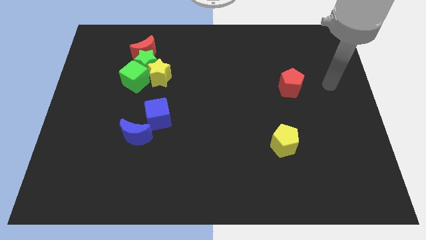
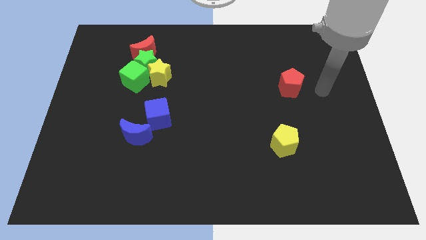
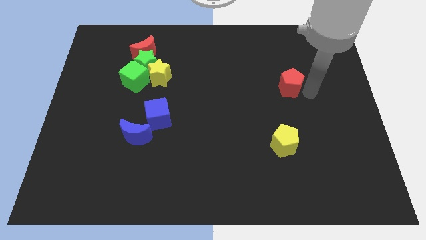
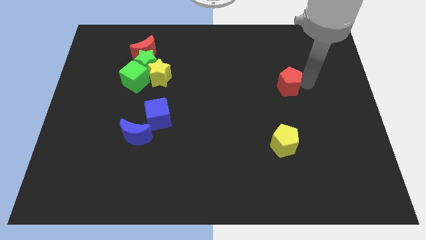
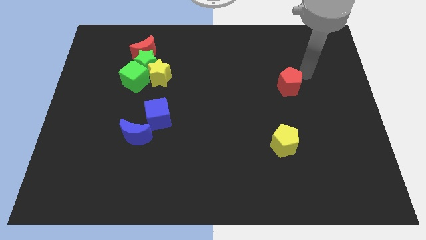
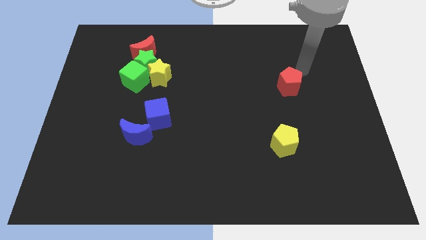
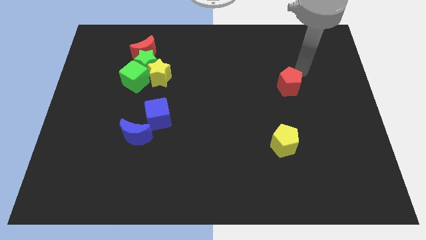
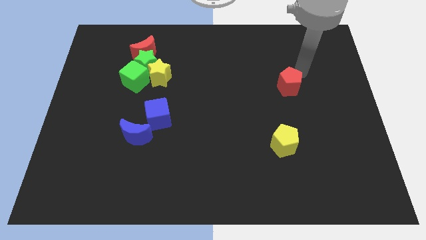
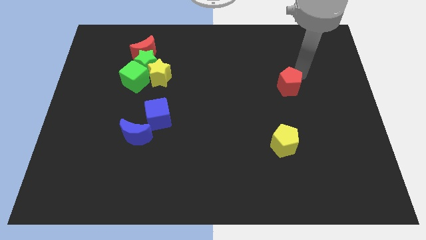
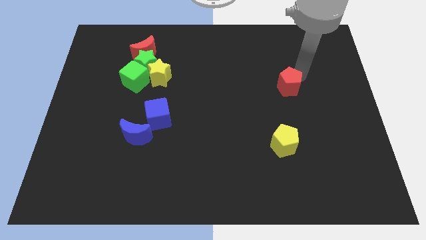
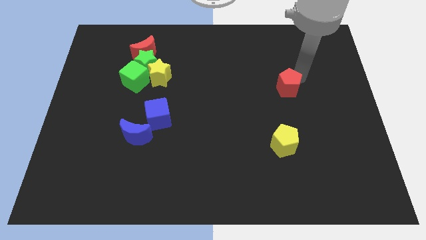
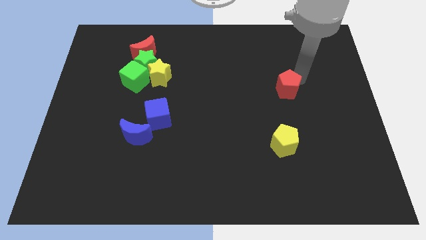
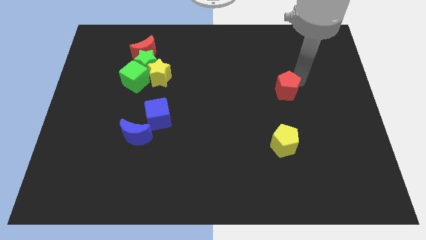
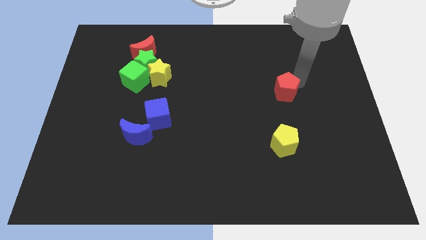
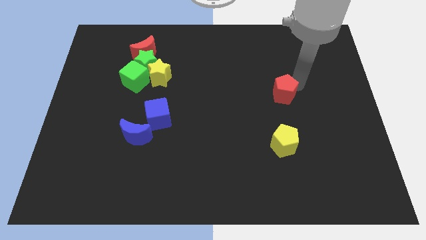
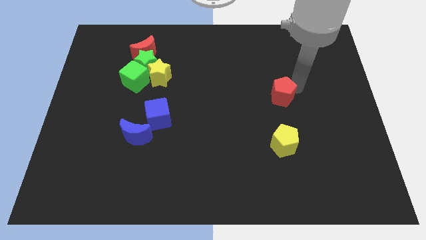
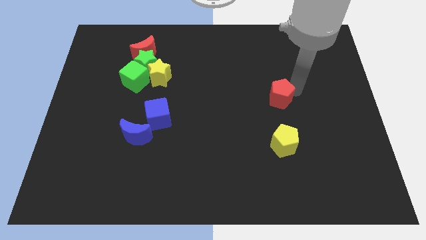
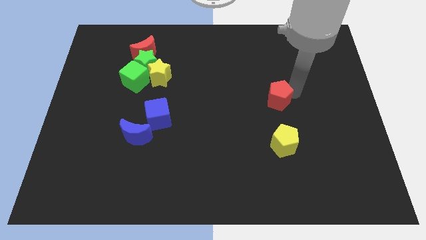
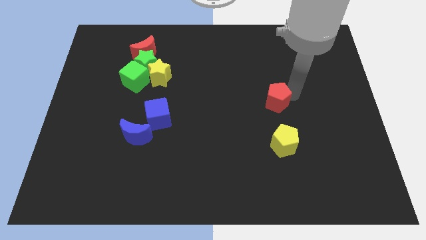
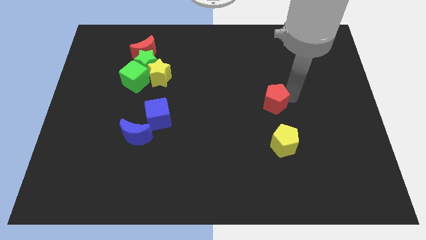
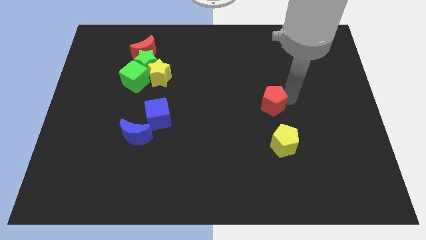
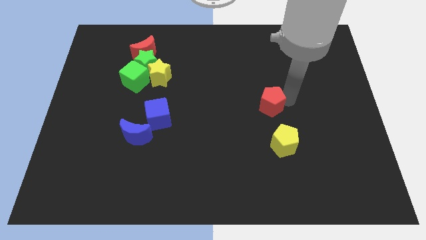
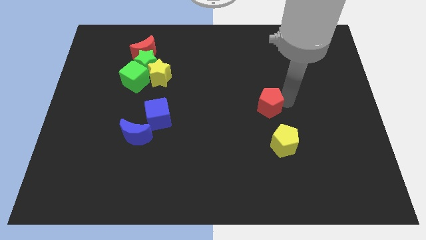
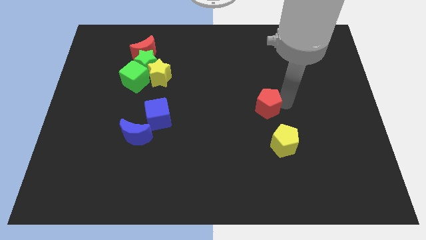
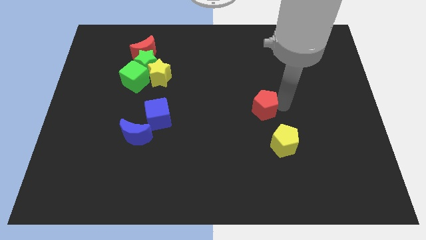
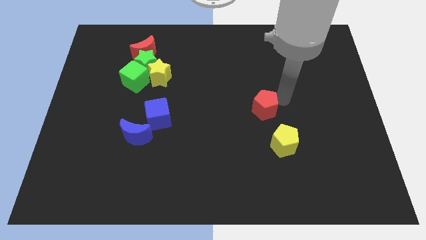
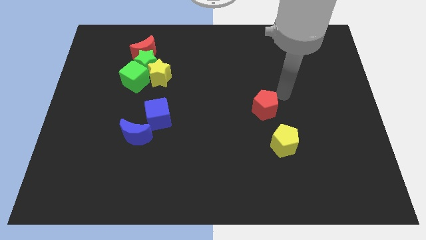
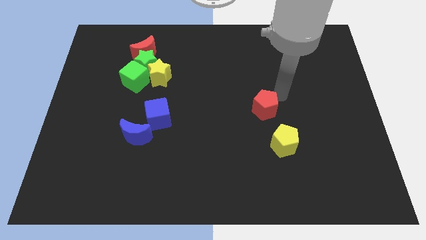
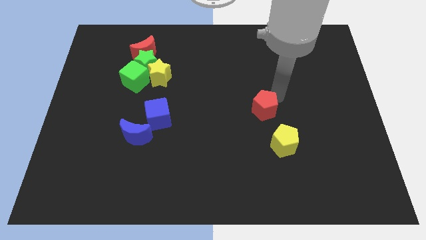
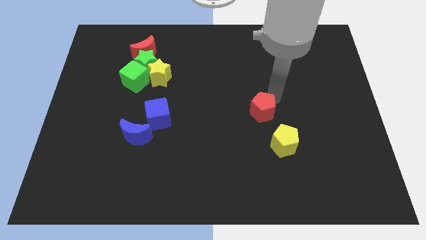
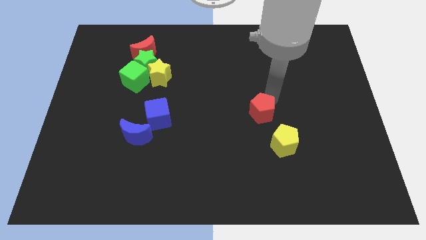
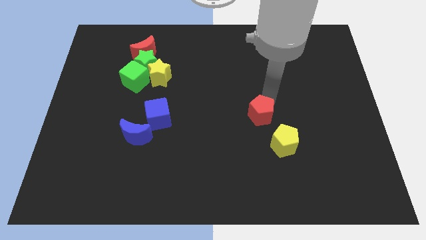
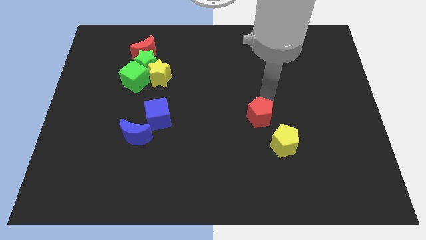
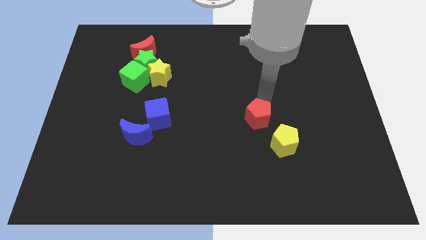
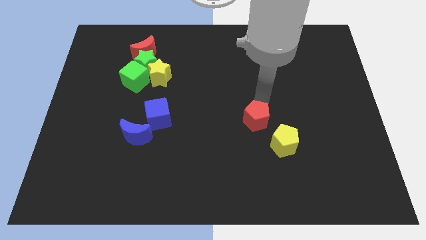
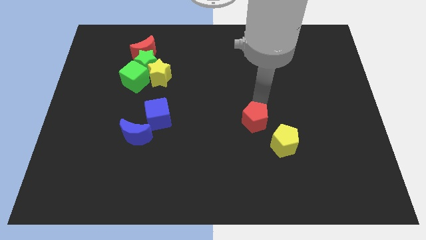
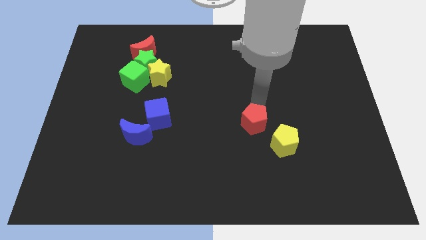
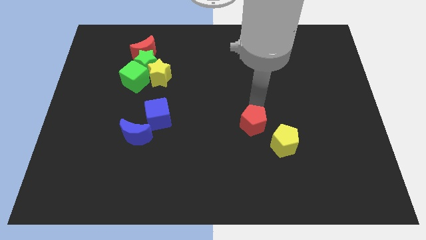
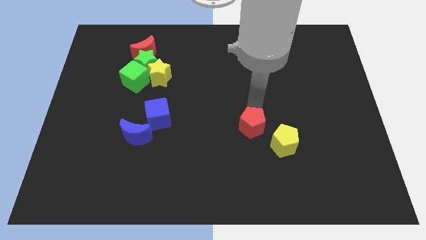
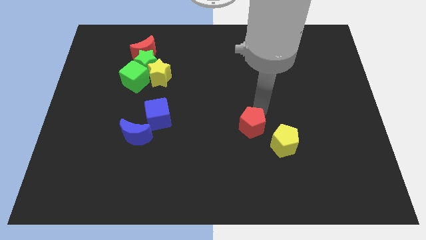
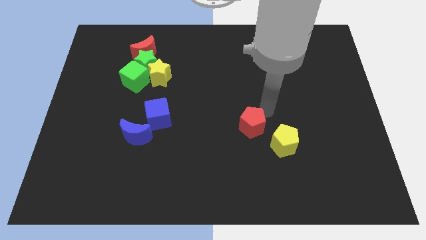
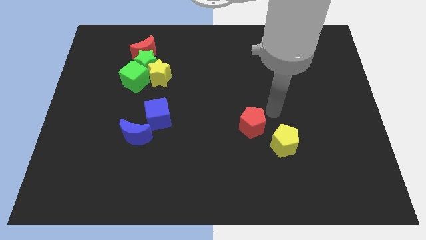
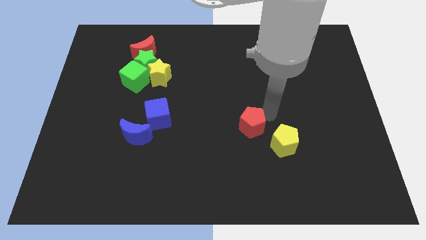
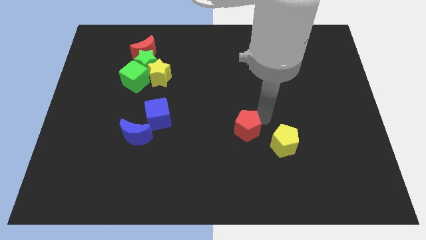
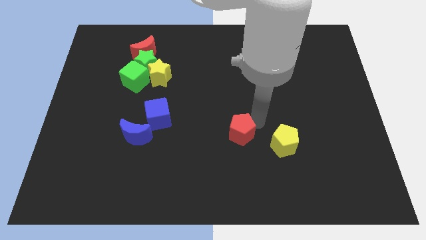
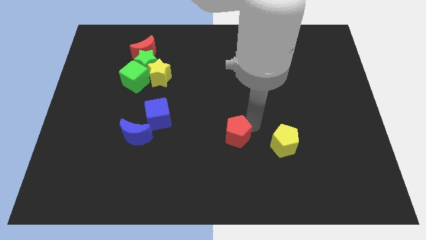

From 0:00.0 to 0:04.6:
move the red pentagon diagonally down and left

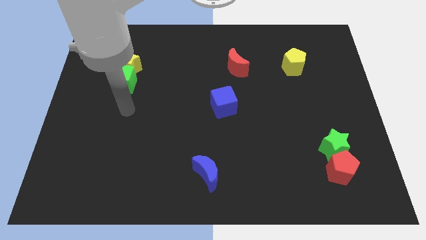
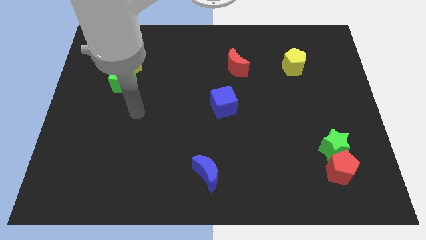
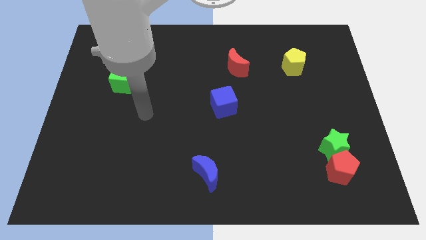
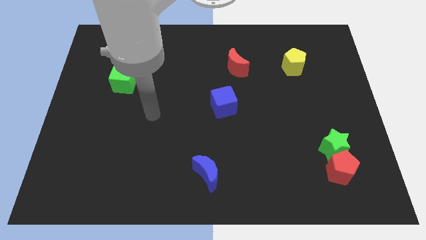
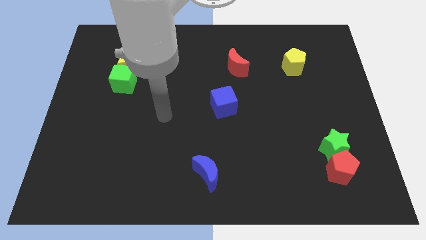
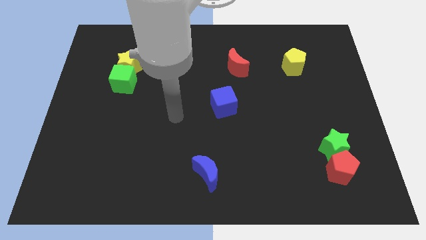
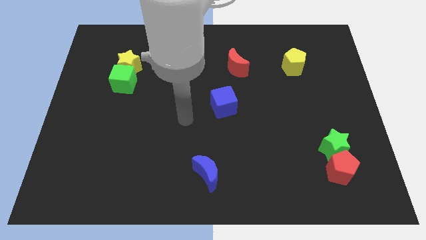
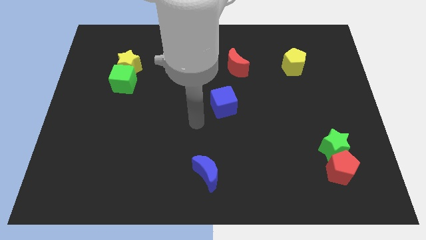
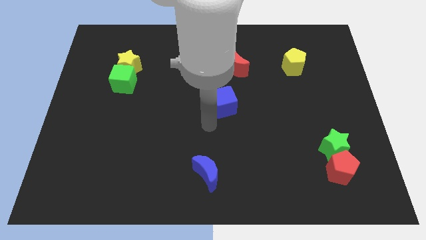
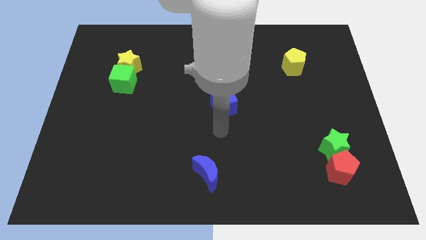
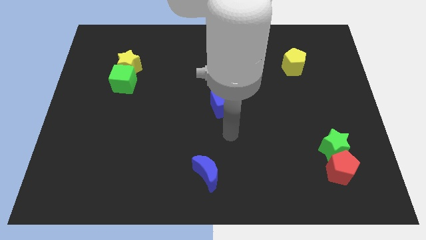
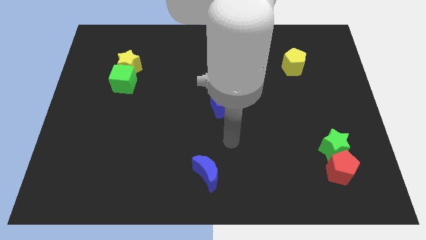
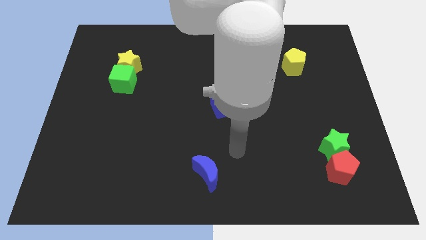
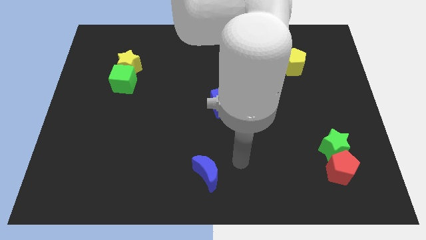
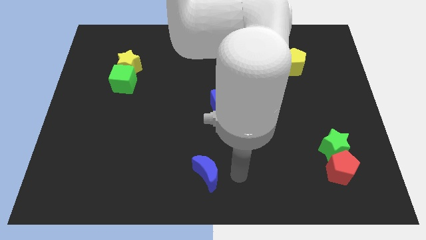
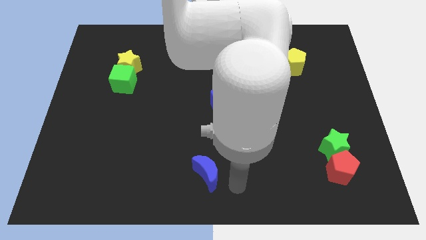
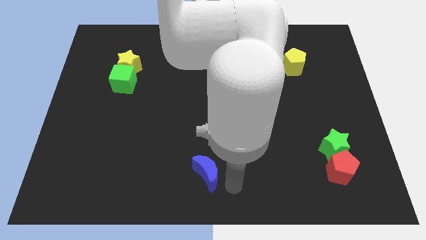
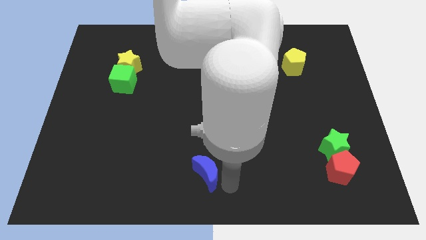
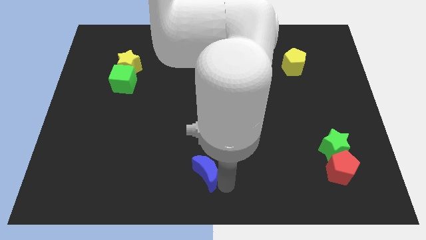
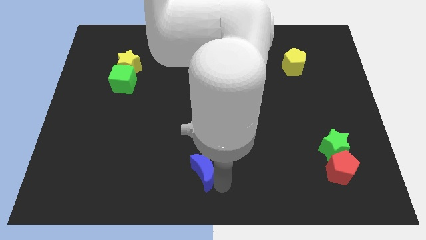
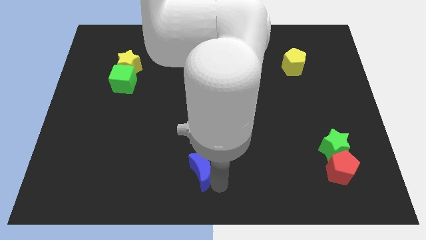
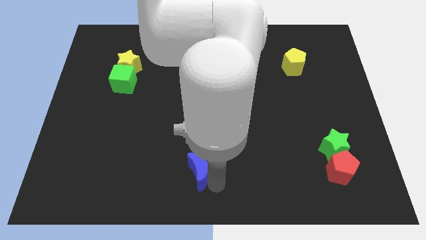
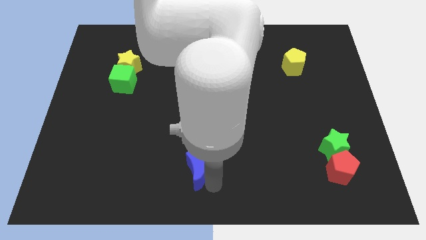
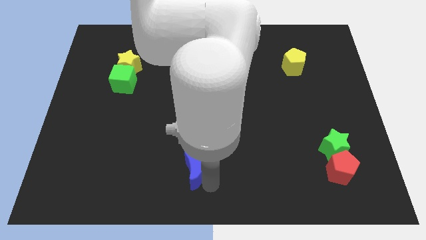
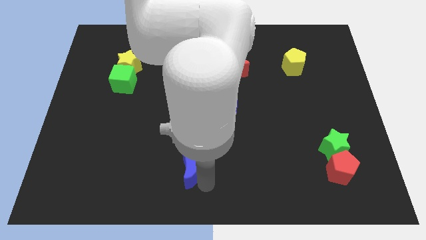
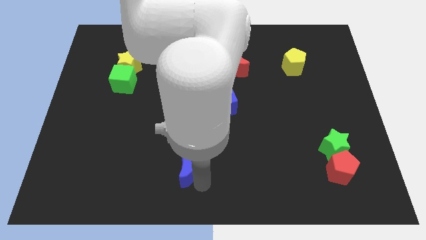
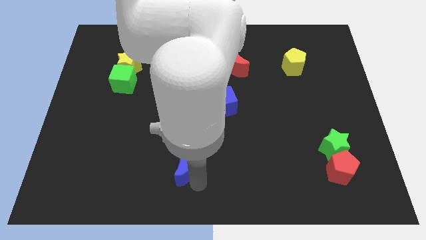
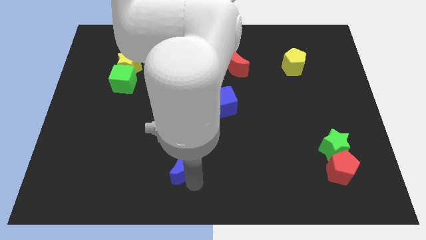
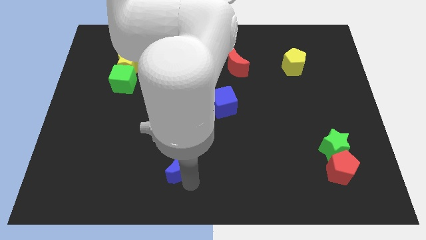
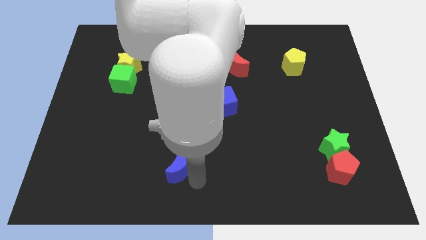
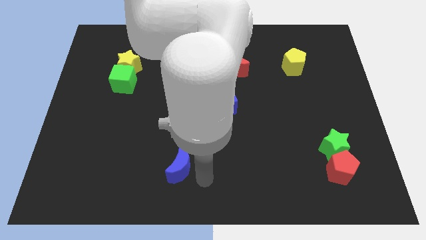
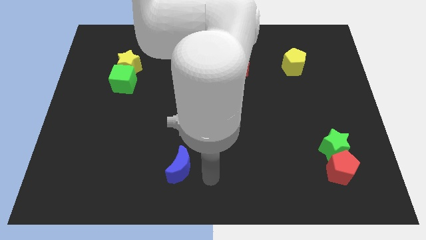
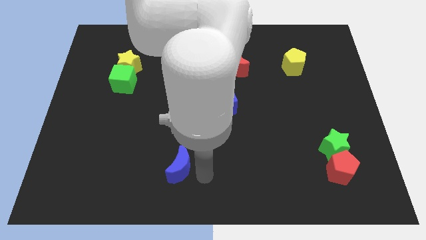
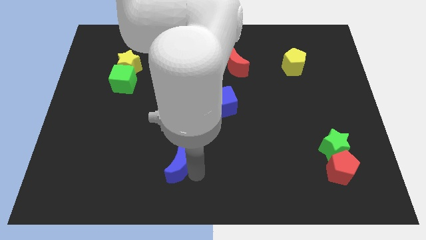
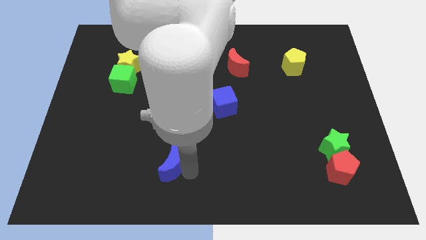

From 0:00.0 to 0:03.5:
move the blue moon left a little
